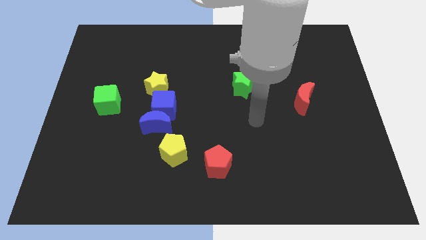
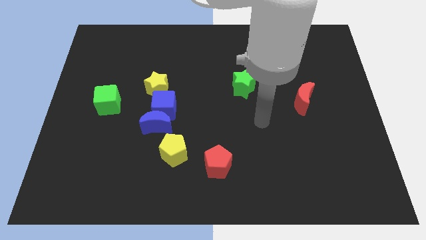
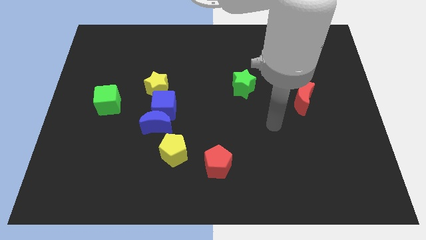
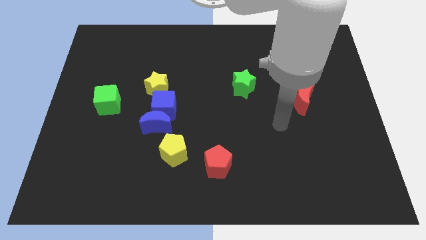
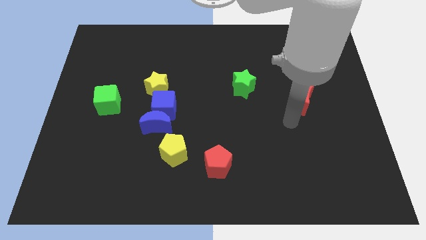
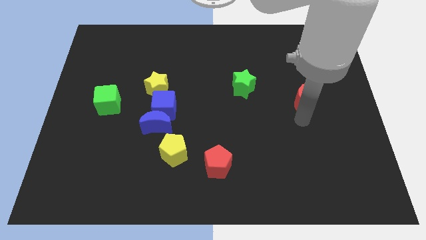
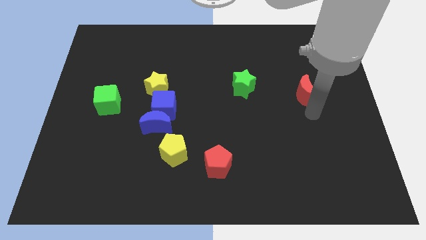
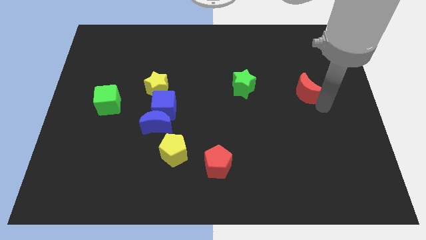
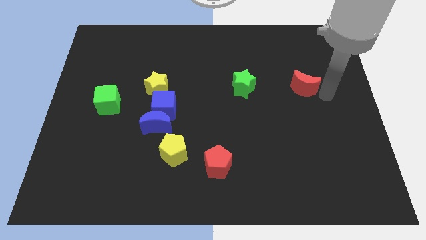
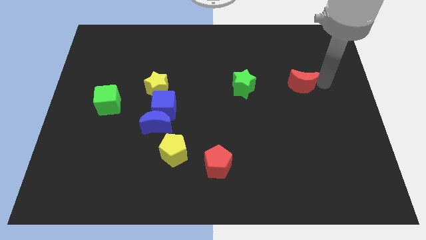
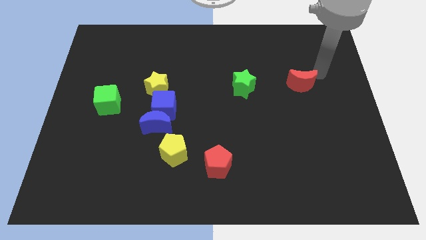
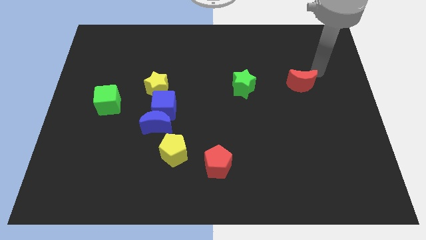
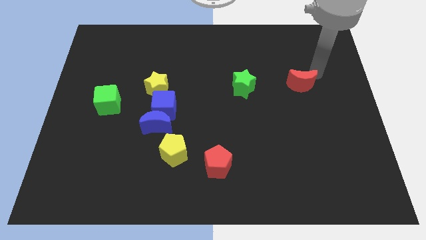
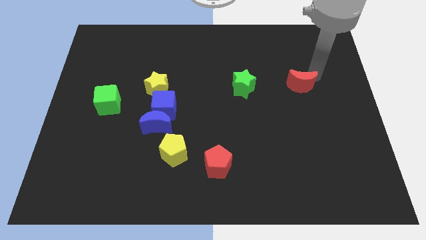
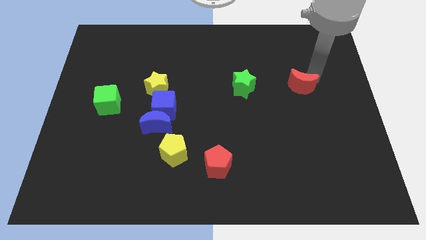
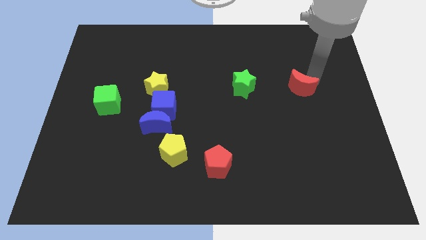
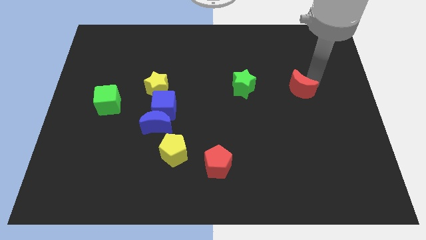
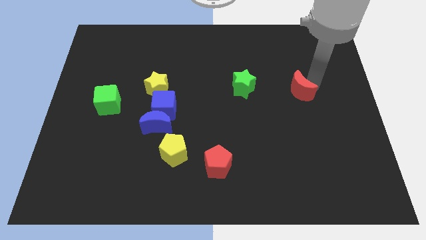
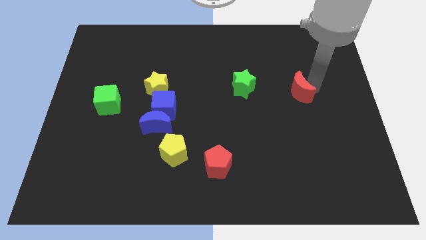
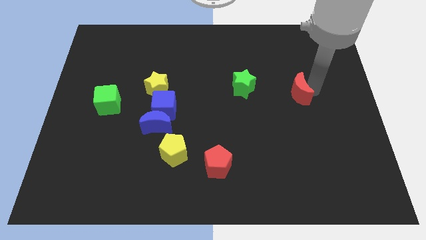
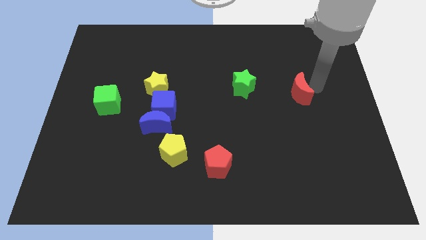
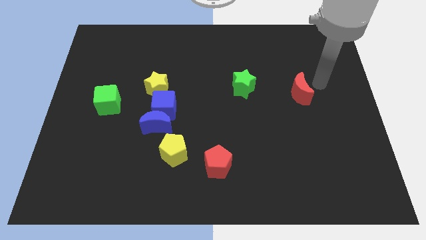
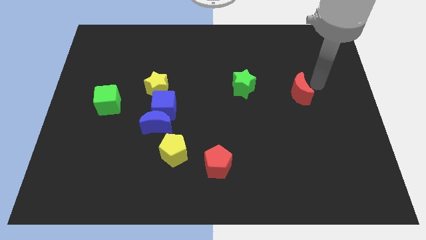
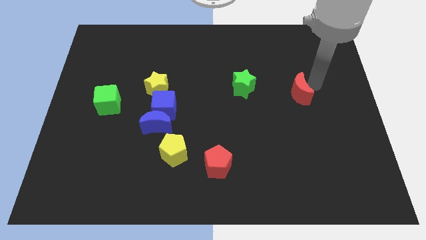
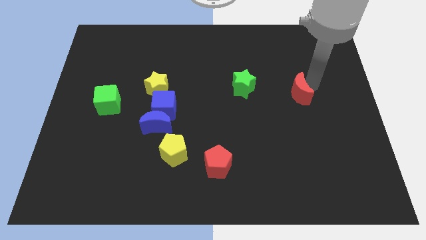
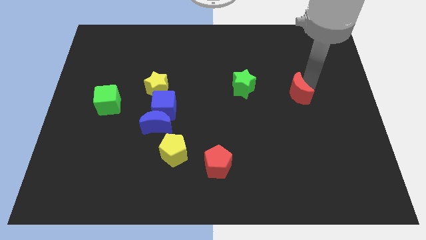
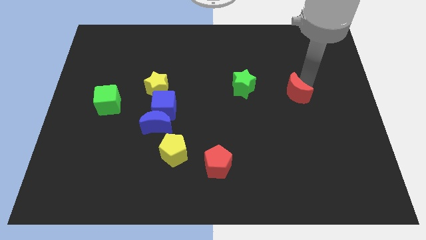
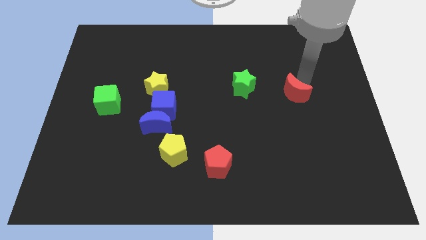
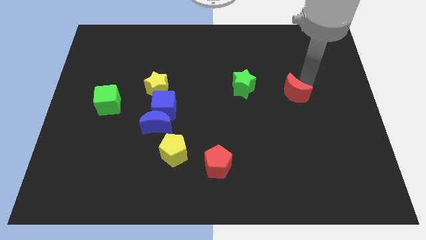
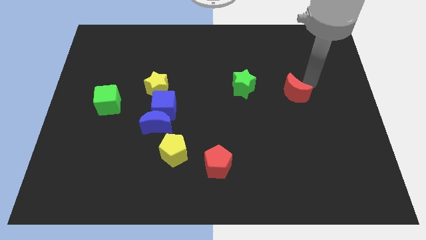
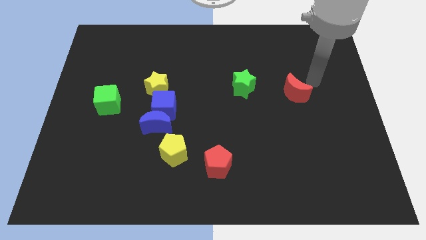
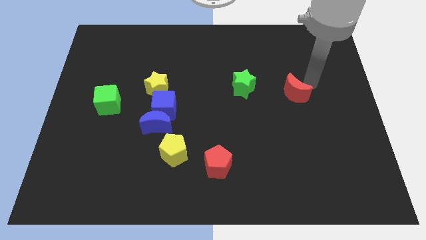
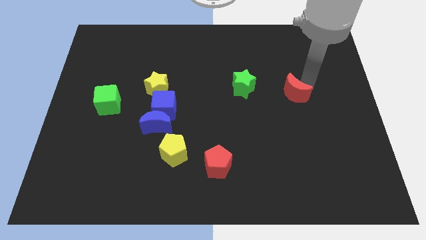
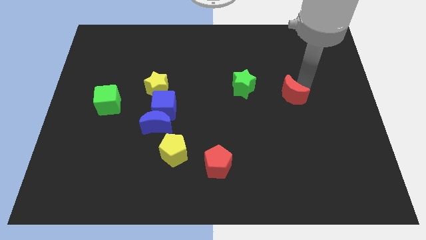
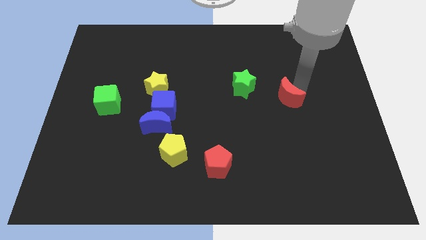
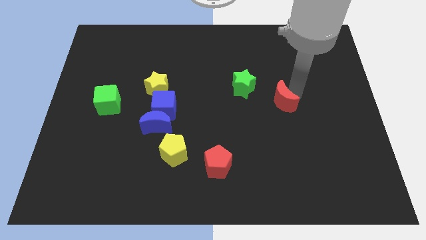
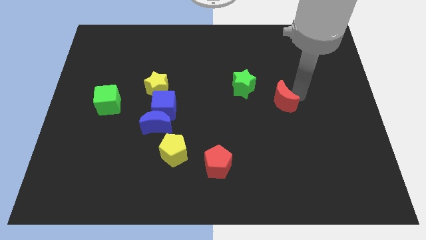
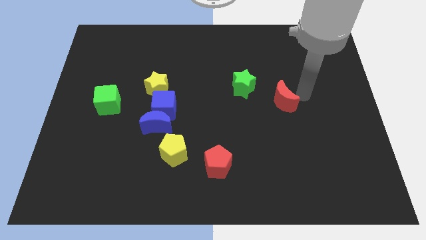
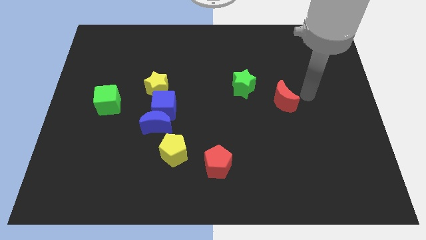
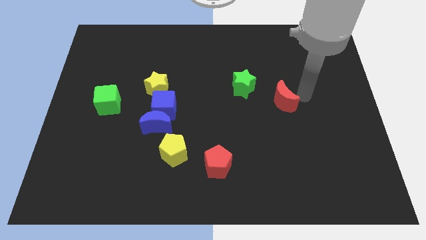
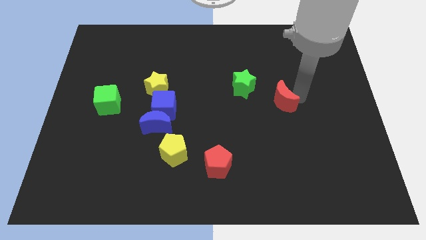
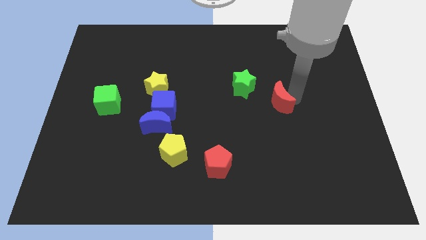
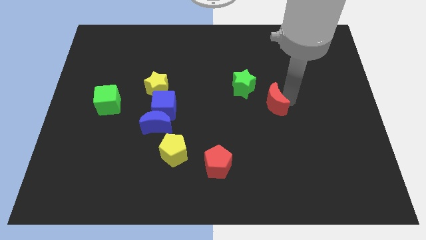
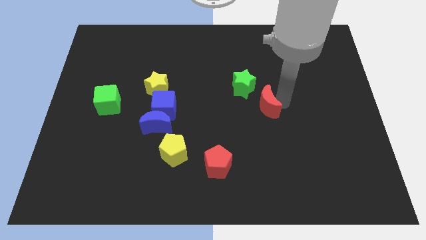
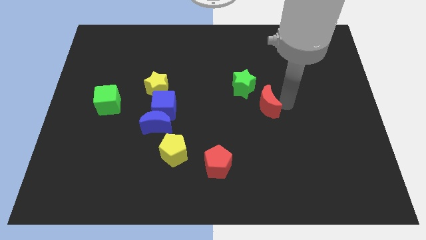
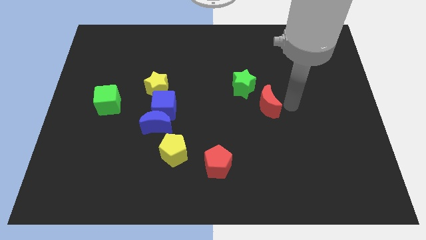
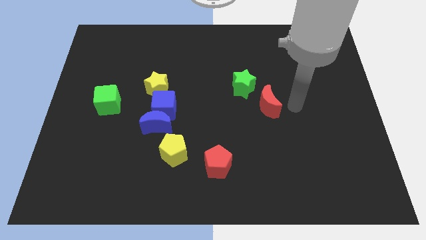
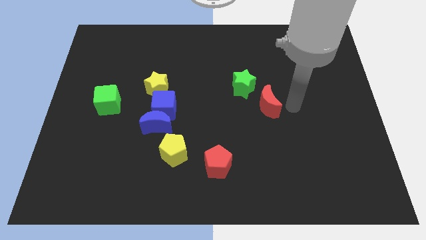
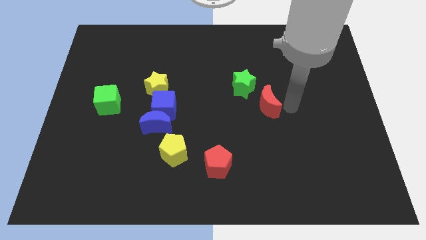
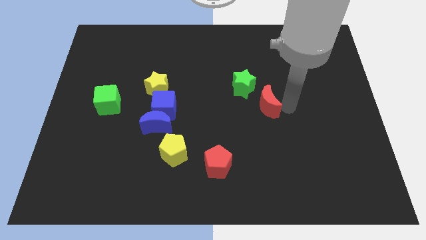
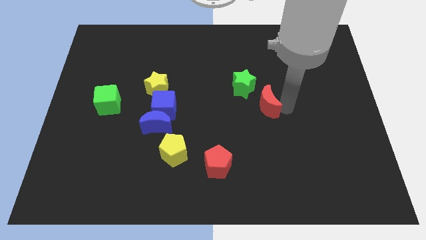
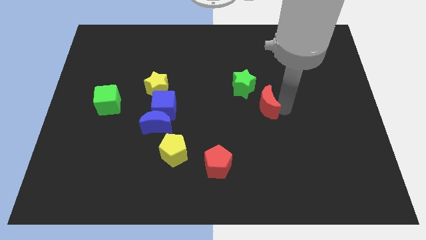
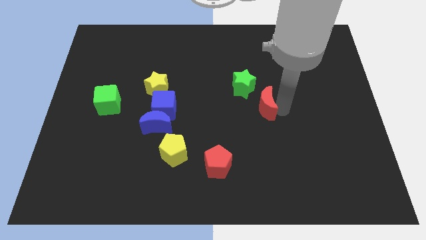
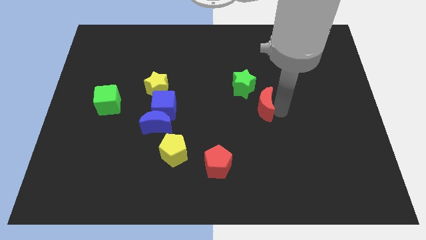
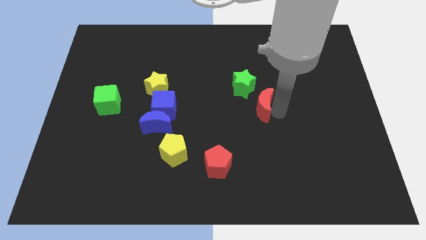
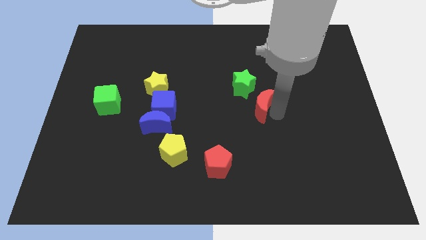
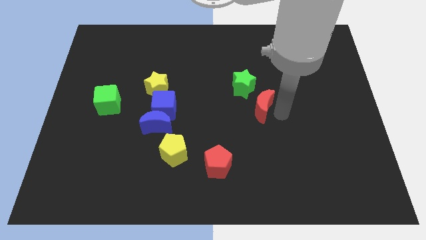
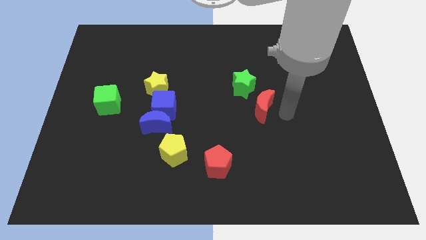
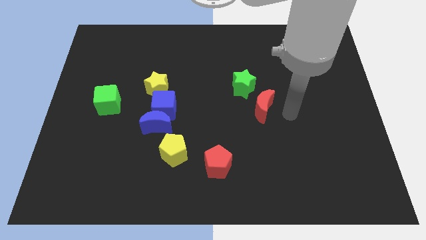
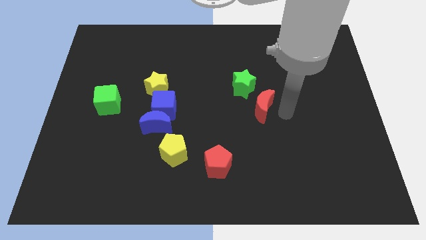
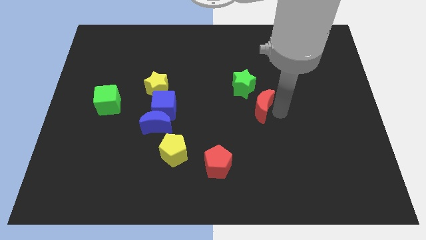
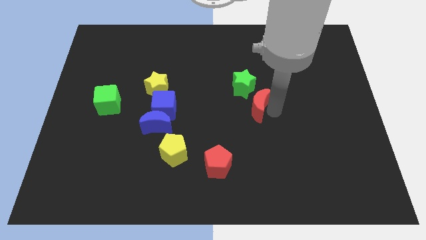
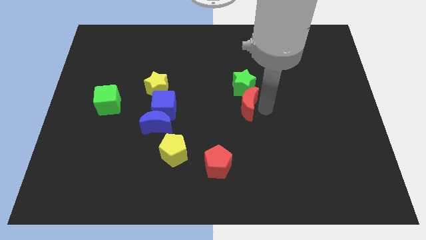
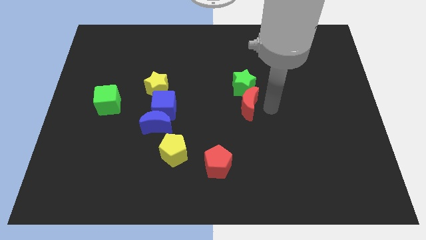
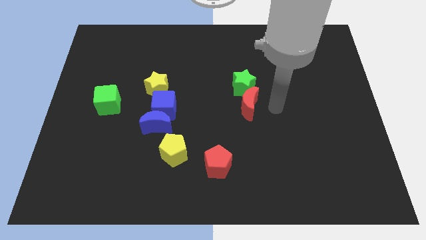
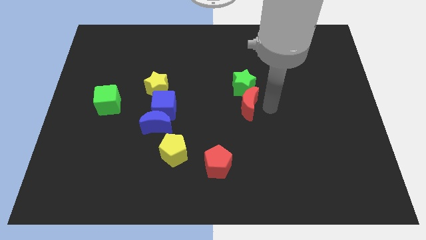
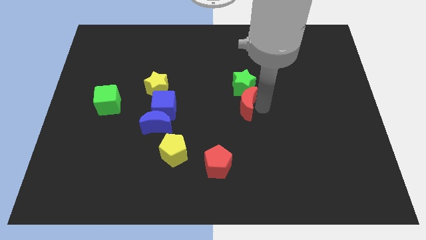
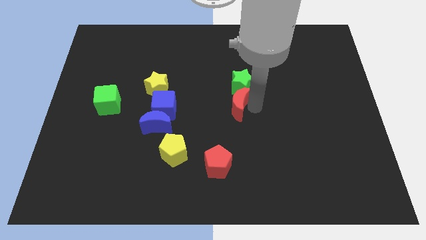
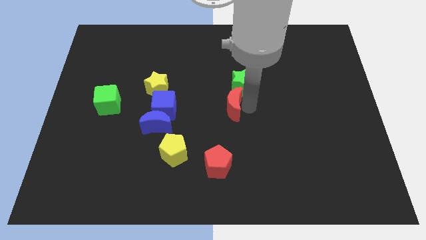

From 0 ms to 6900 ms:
put the red moon to the right side of the blue cube
